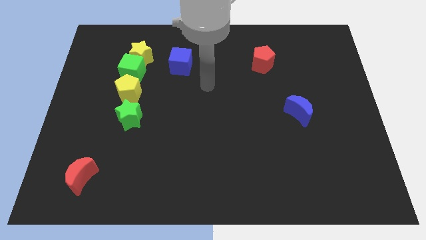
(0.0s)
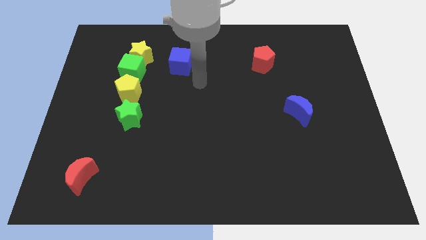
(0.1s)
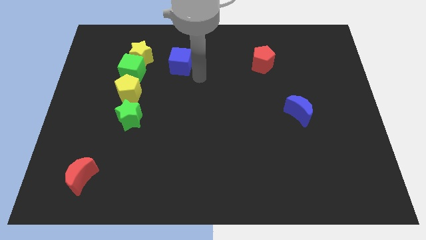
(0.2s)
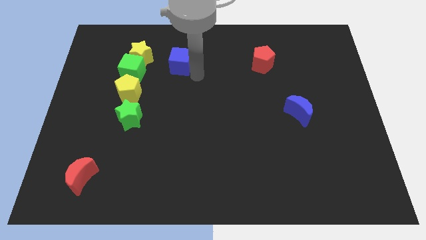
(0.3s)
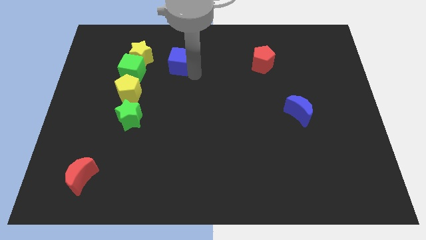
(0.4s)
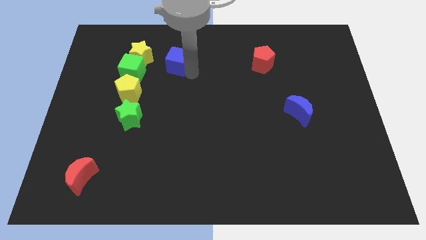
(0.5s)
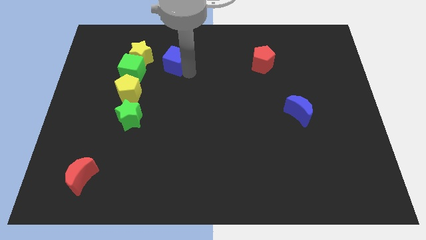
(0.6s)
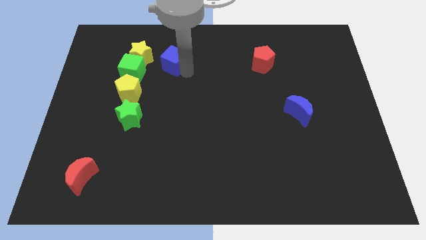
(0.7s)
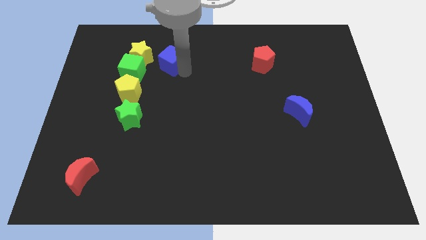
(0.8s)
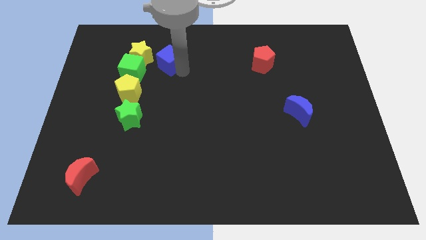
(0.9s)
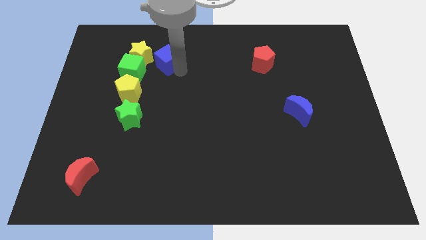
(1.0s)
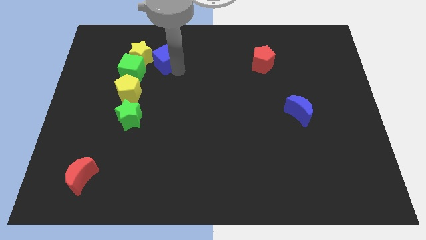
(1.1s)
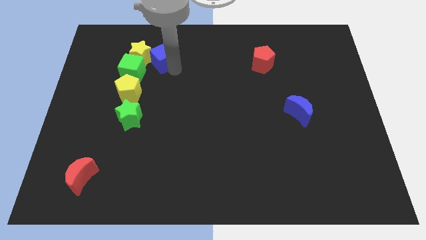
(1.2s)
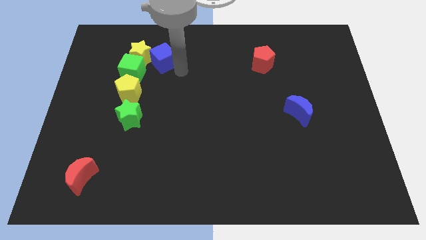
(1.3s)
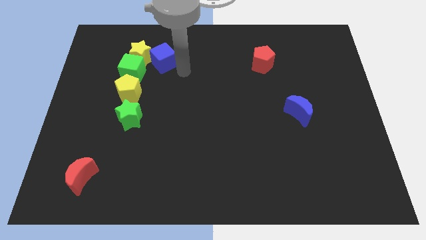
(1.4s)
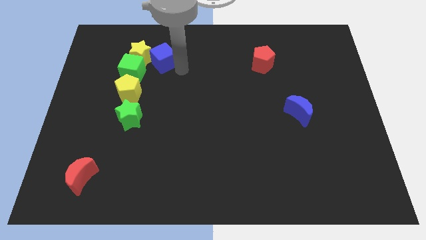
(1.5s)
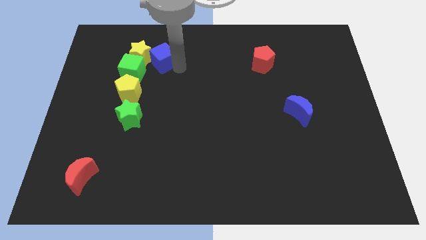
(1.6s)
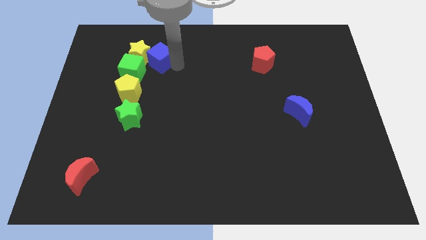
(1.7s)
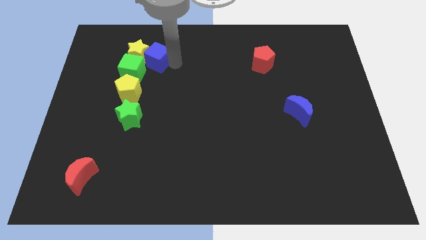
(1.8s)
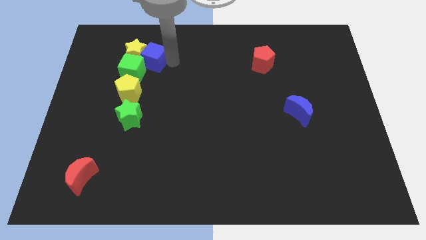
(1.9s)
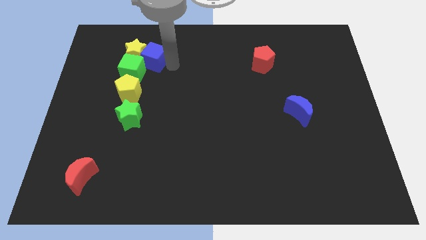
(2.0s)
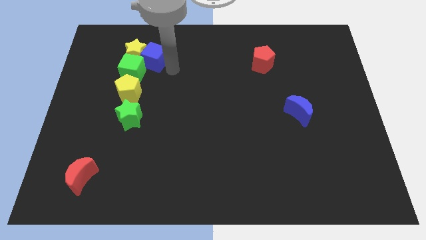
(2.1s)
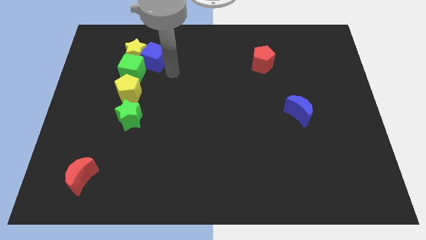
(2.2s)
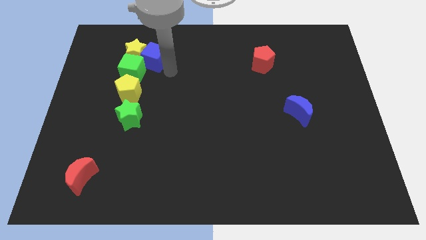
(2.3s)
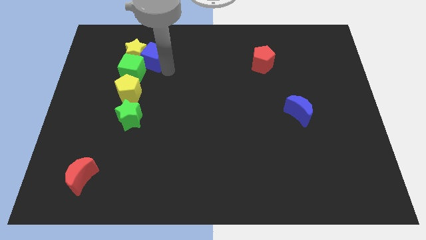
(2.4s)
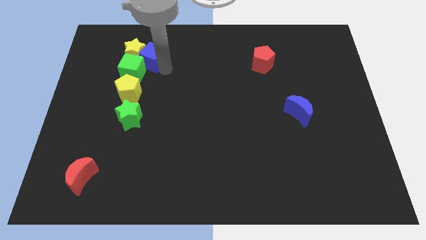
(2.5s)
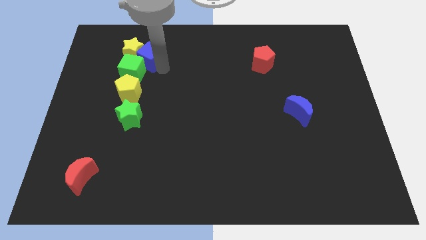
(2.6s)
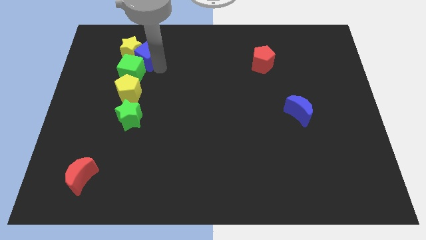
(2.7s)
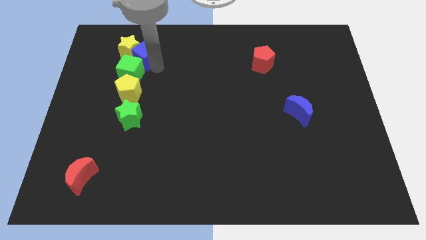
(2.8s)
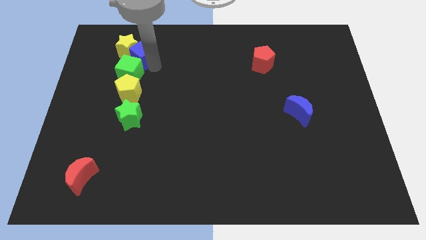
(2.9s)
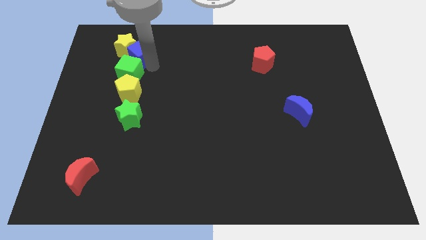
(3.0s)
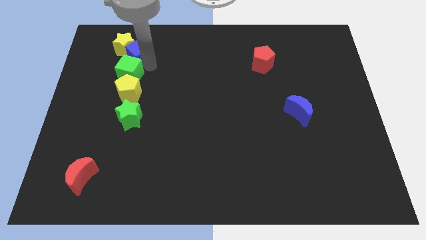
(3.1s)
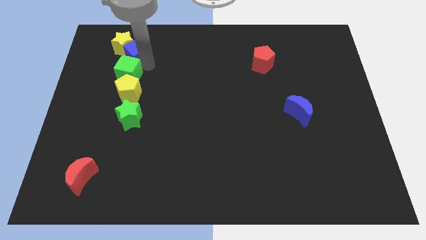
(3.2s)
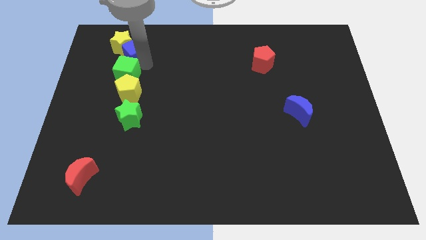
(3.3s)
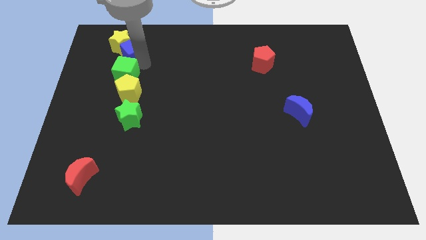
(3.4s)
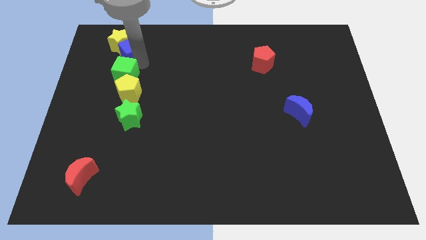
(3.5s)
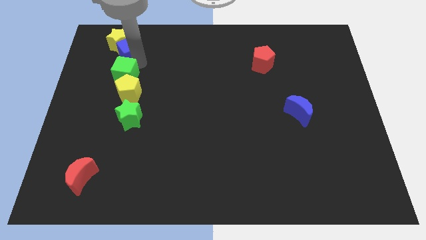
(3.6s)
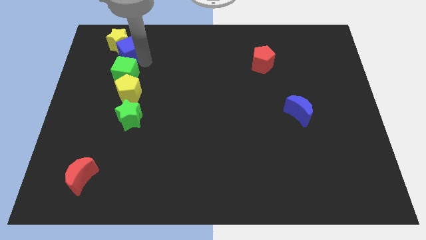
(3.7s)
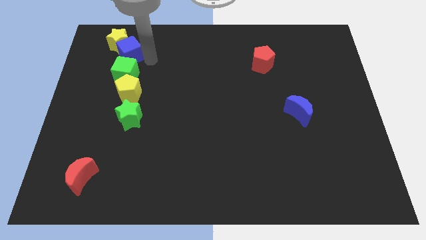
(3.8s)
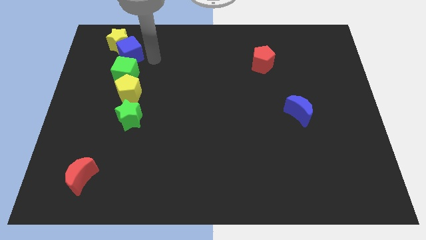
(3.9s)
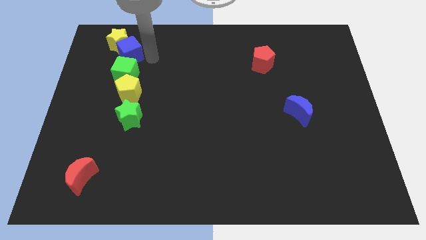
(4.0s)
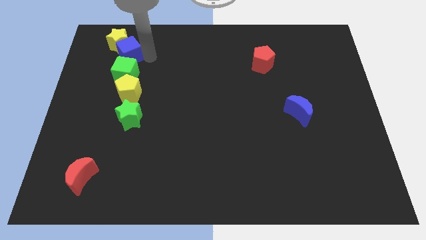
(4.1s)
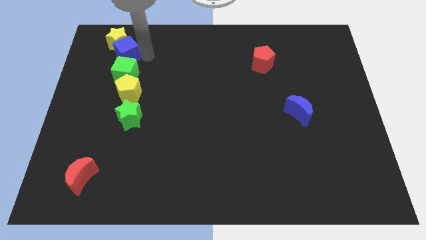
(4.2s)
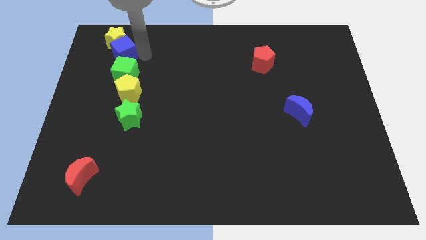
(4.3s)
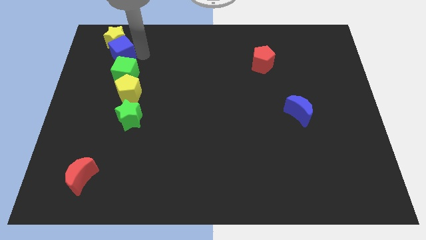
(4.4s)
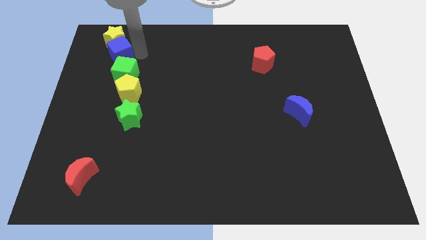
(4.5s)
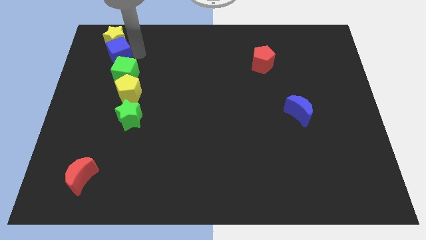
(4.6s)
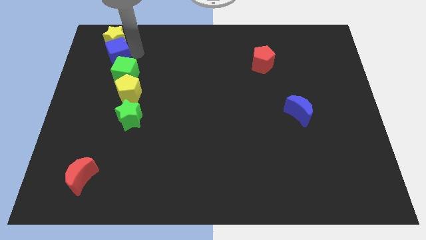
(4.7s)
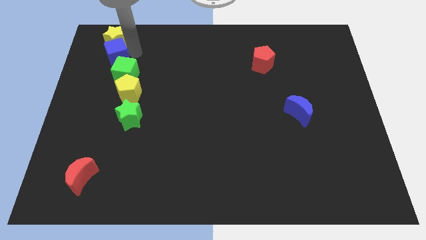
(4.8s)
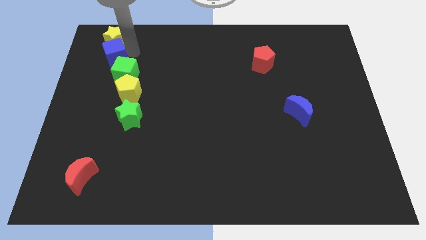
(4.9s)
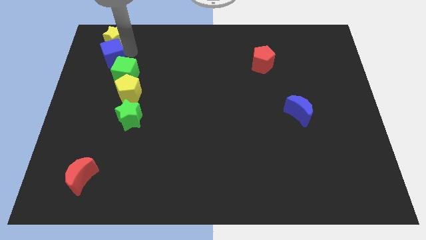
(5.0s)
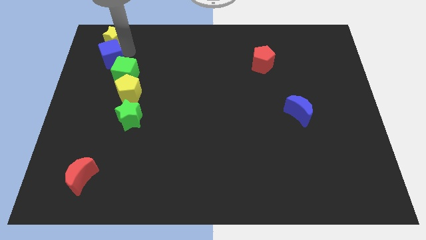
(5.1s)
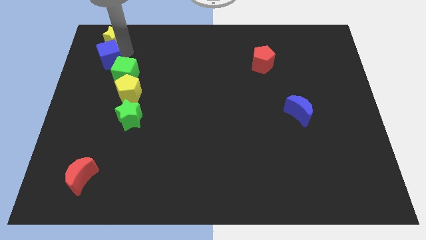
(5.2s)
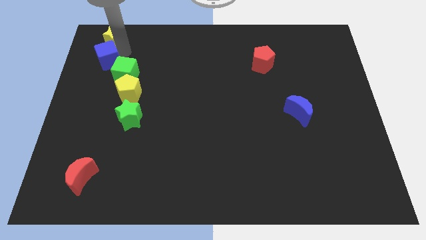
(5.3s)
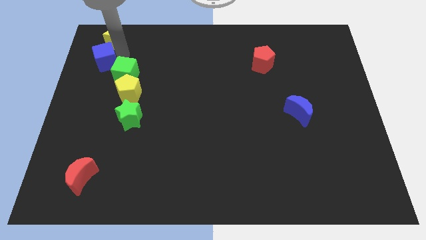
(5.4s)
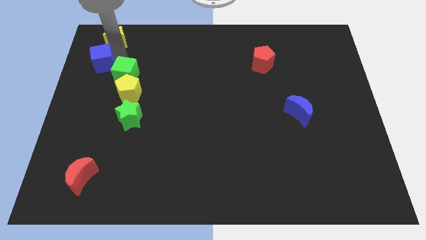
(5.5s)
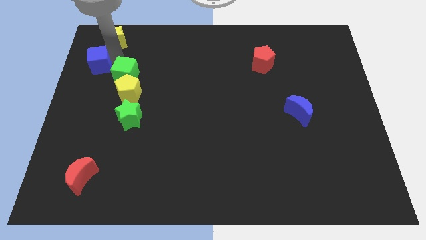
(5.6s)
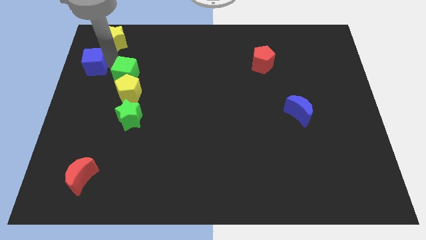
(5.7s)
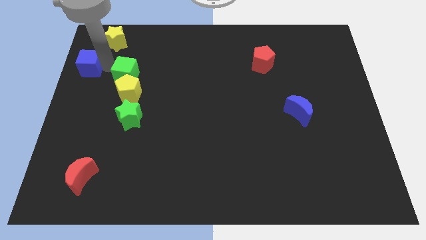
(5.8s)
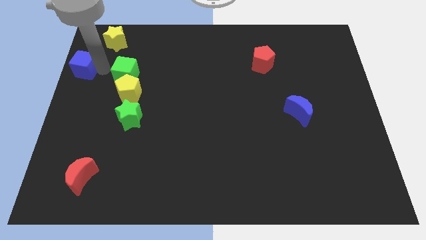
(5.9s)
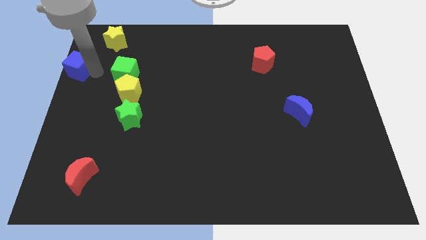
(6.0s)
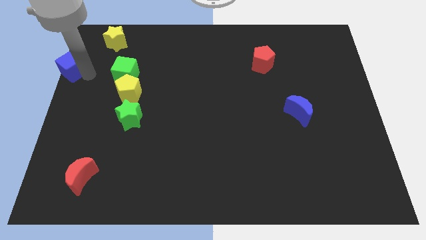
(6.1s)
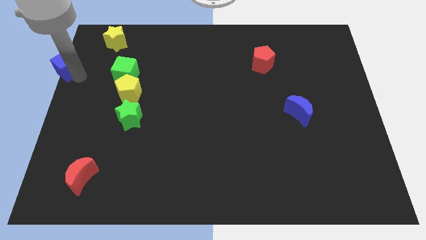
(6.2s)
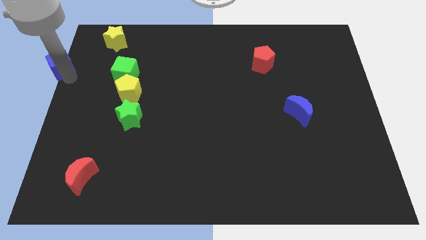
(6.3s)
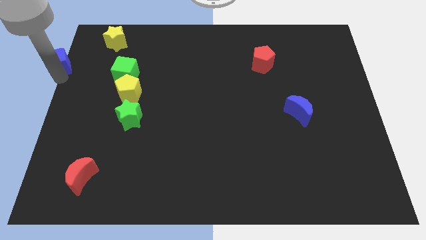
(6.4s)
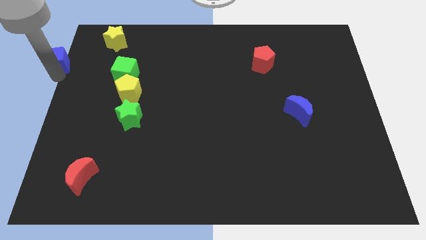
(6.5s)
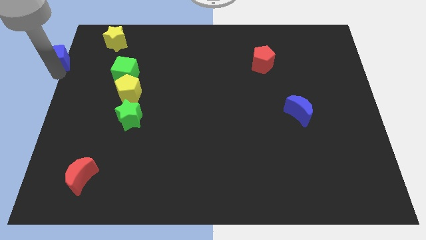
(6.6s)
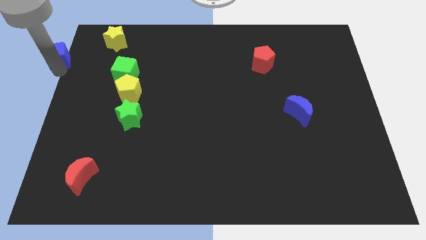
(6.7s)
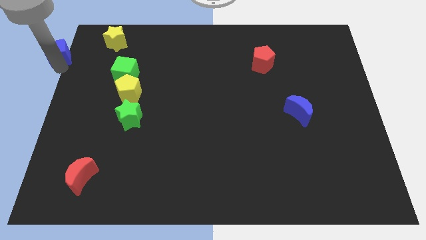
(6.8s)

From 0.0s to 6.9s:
put the blue cube to the top left
